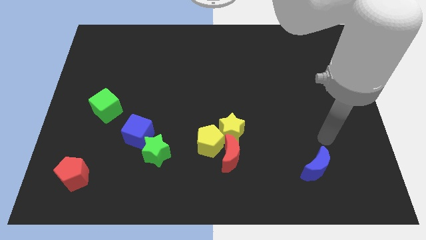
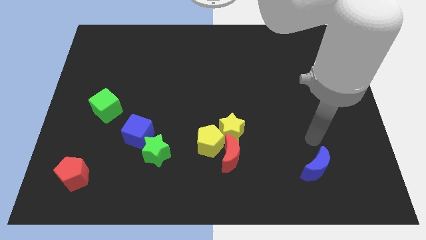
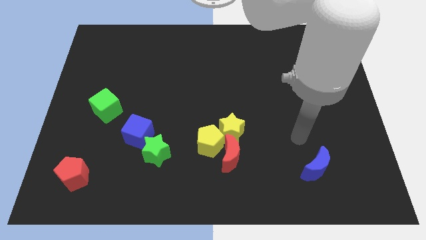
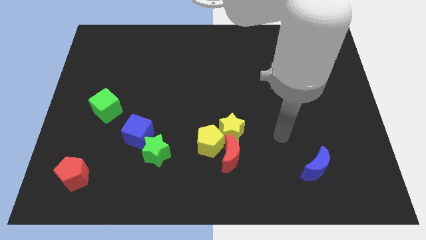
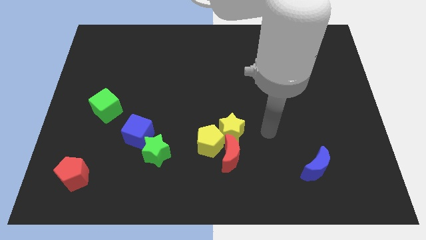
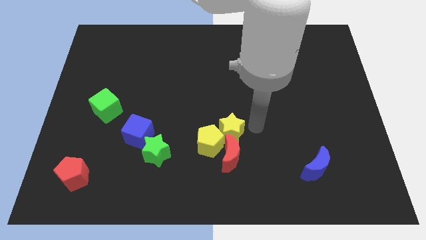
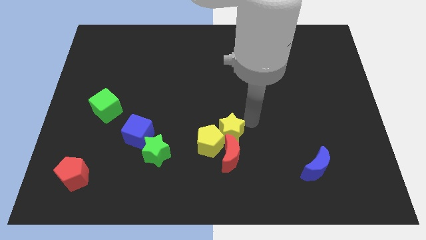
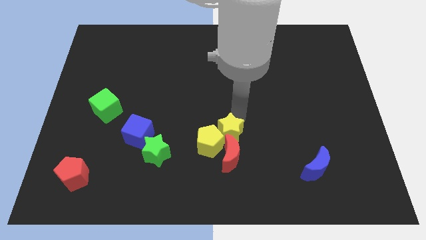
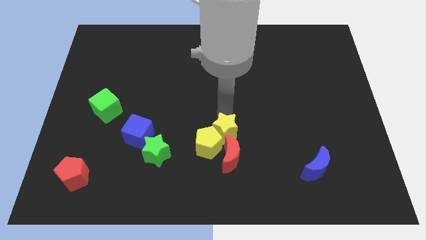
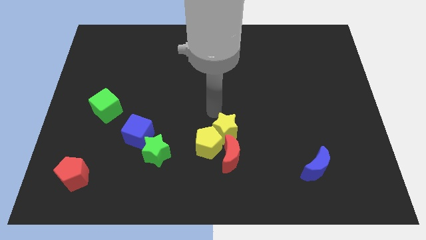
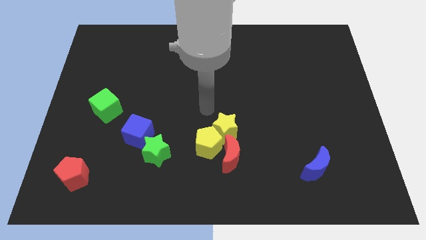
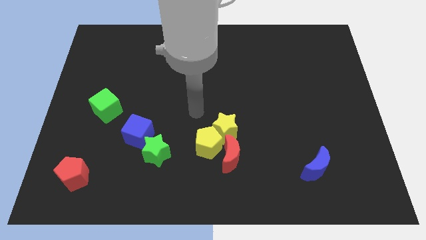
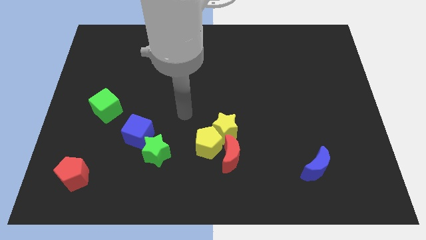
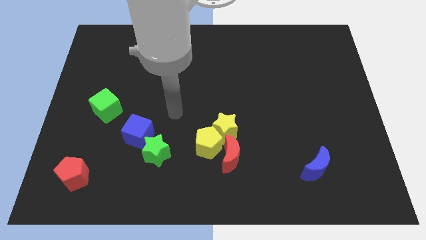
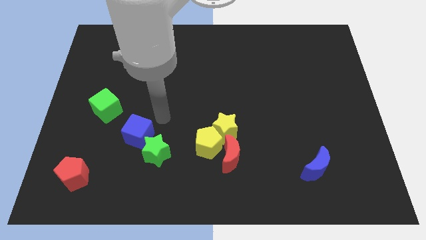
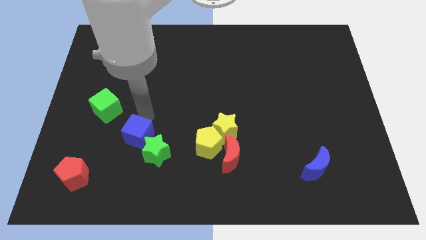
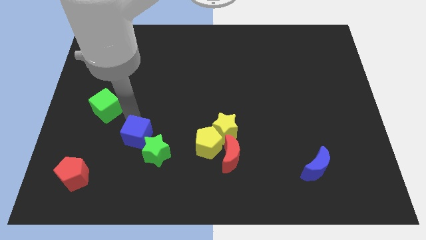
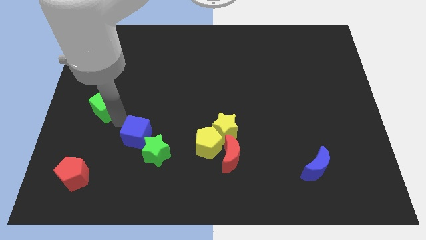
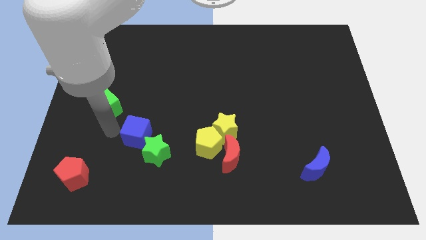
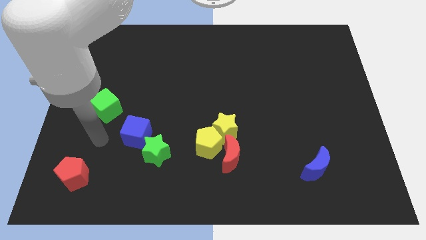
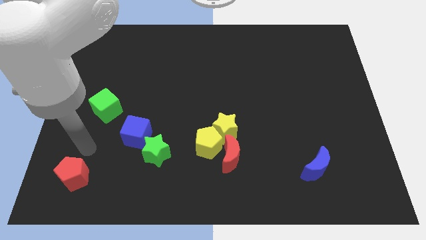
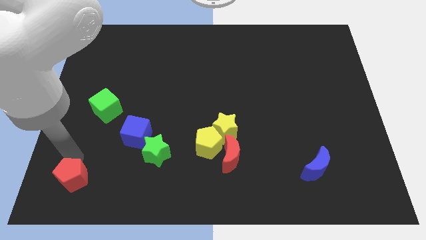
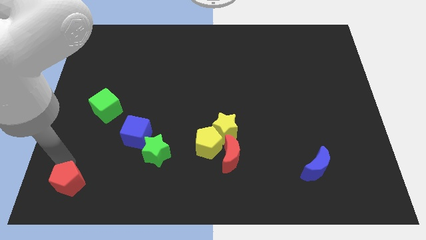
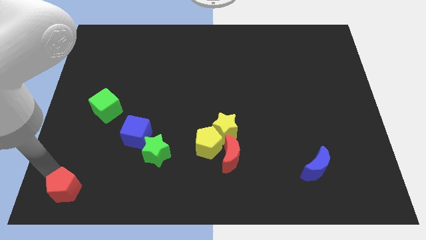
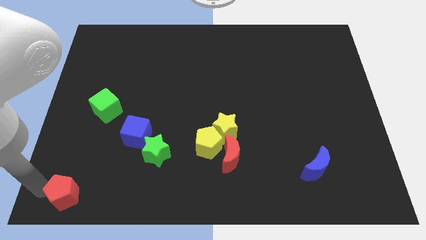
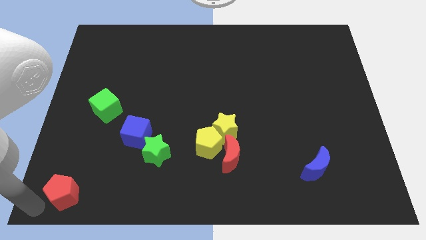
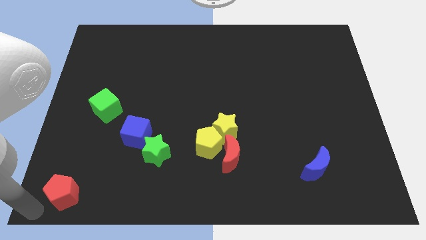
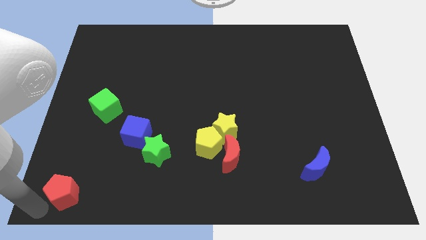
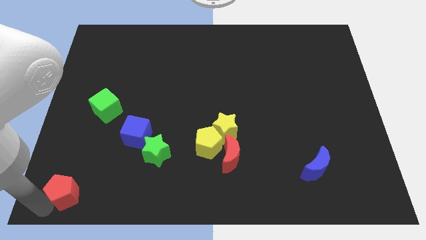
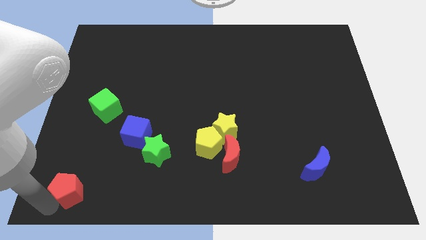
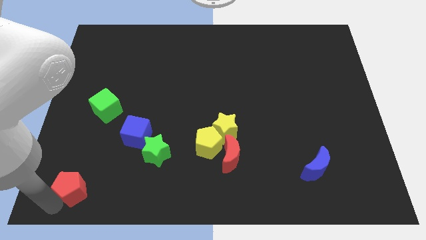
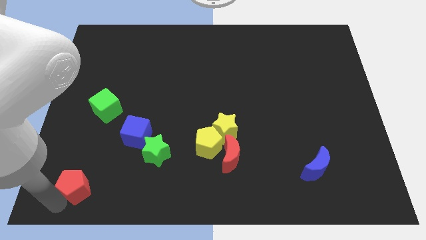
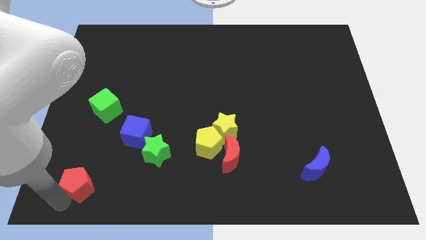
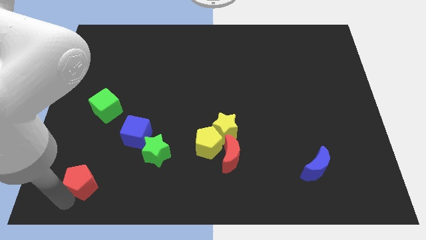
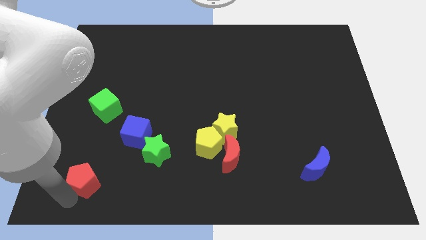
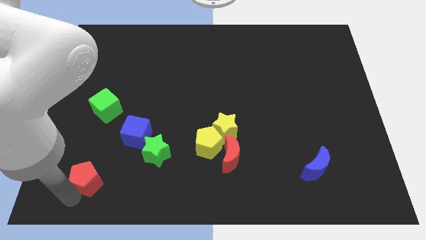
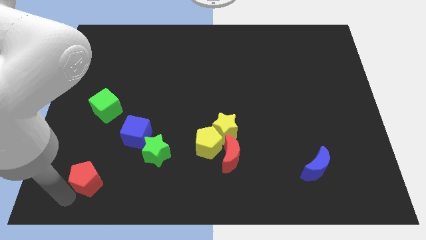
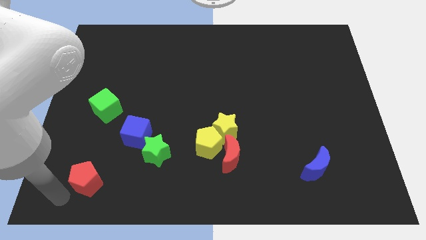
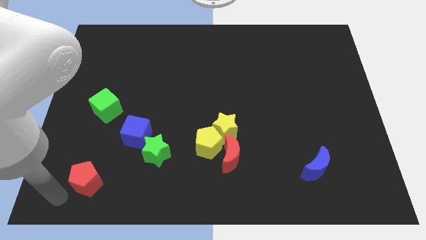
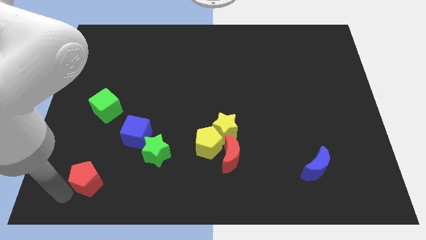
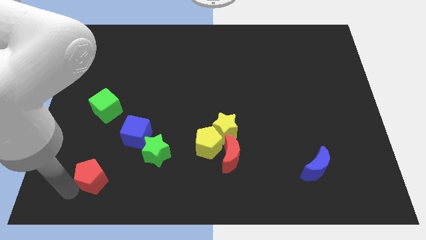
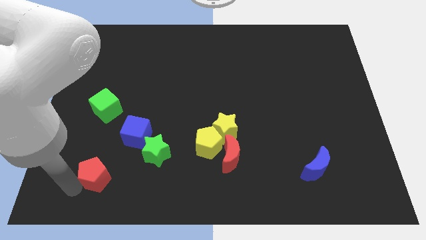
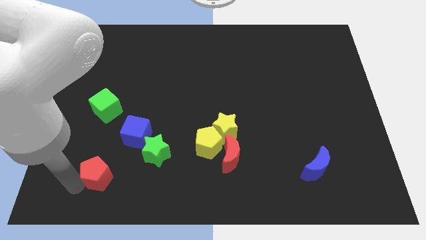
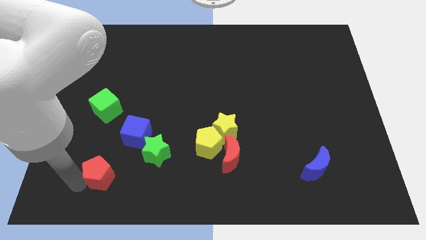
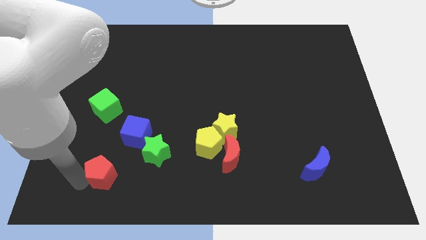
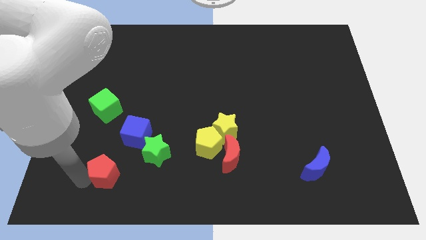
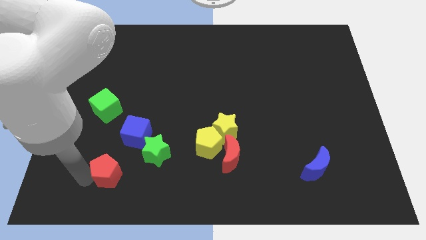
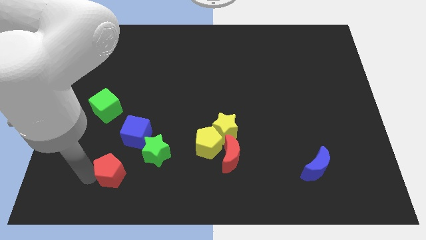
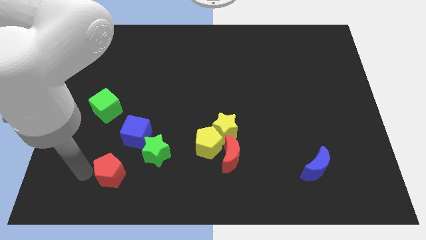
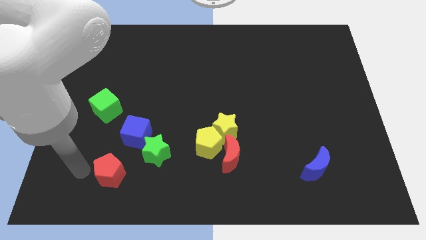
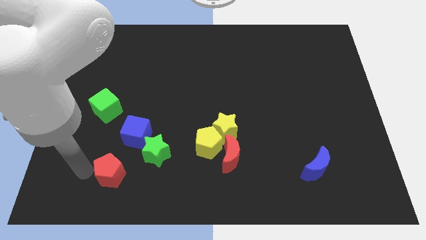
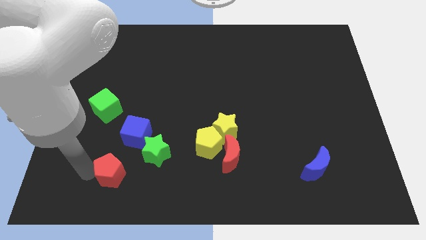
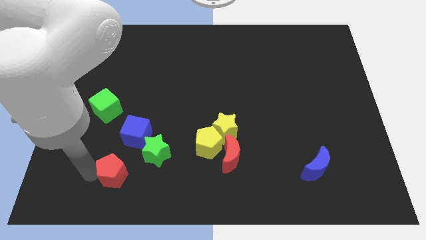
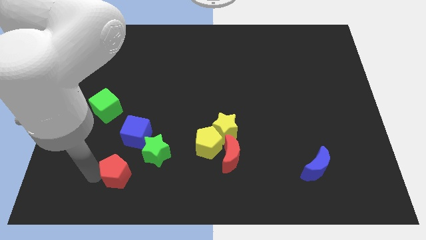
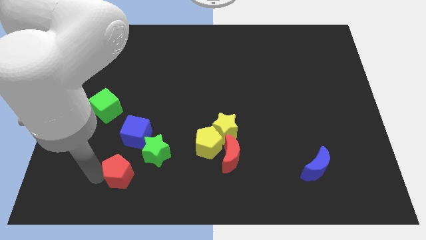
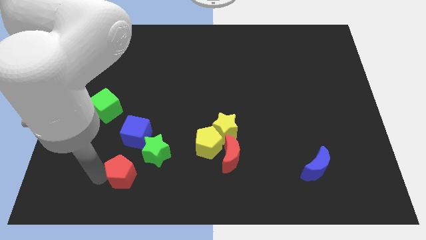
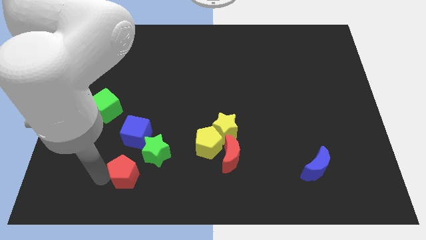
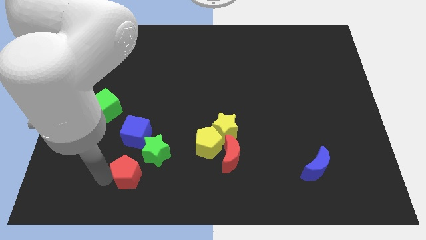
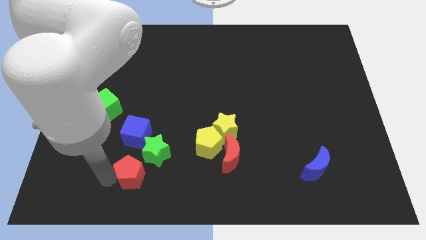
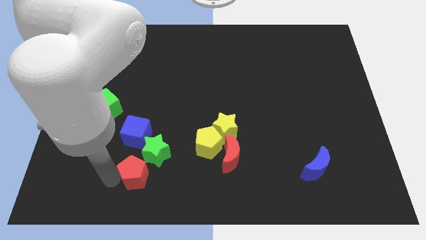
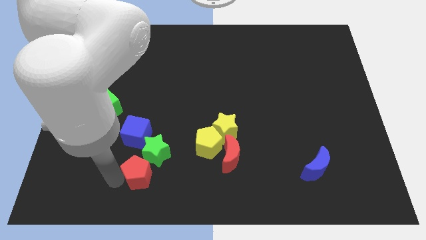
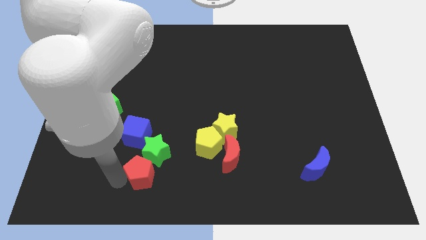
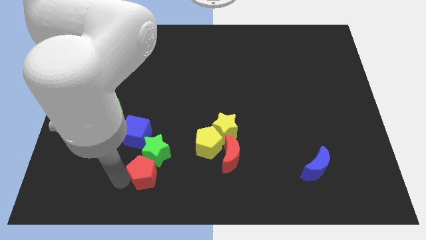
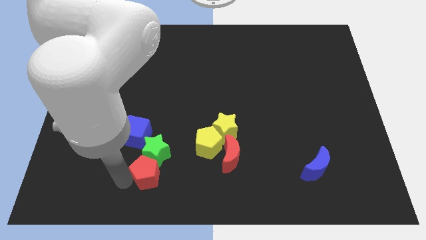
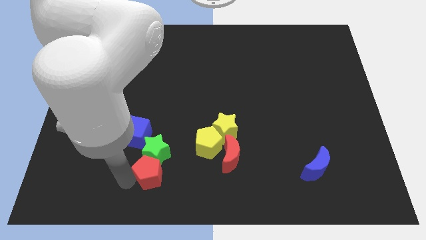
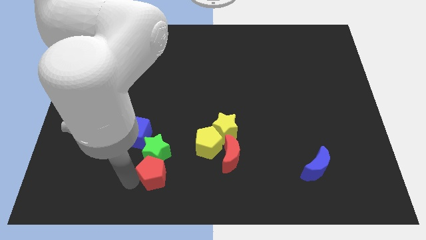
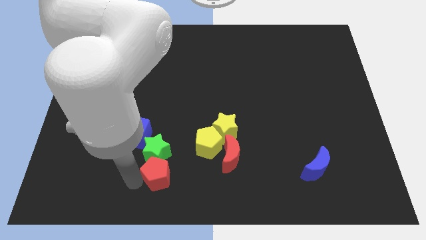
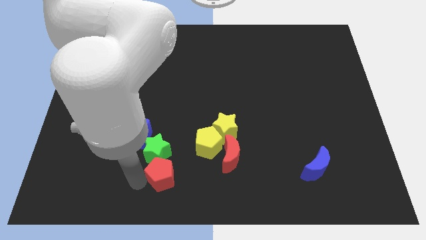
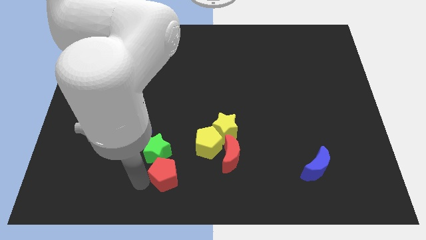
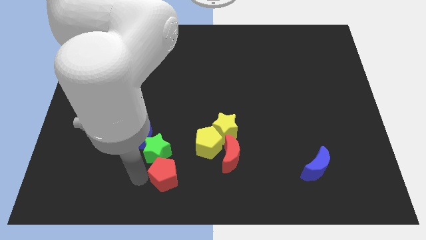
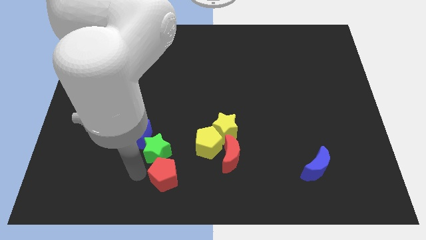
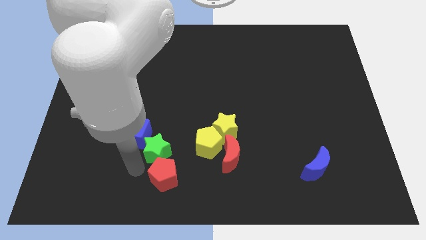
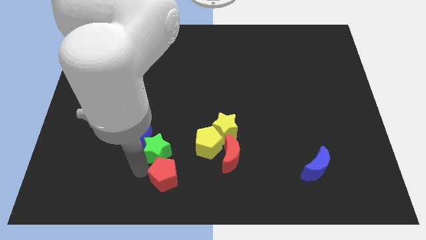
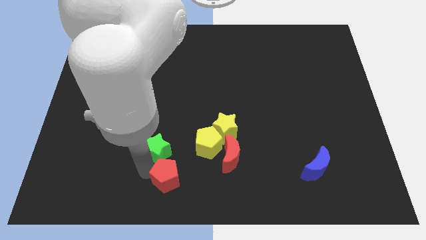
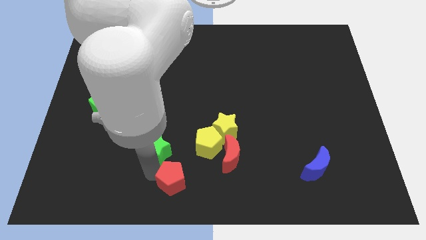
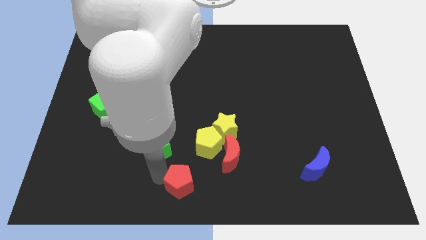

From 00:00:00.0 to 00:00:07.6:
move the red pentagon to the bottom left of the red moon
